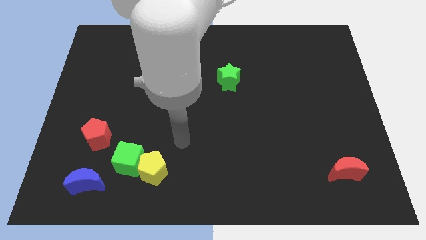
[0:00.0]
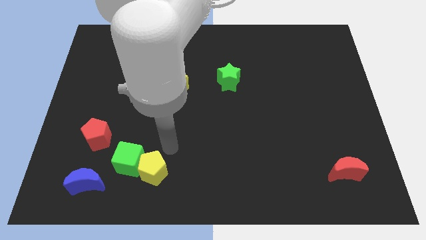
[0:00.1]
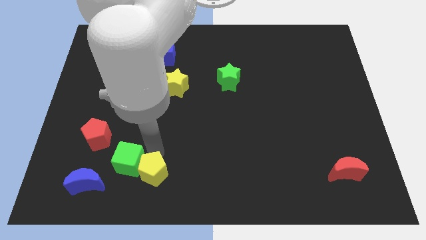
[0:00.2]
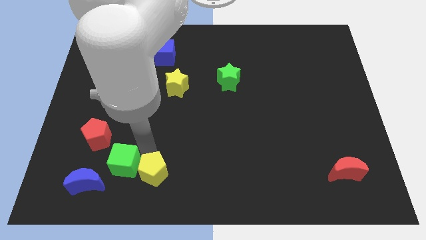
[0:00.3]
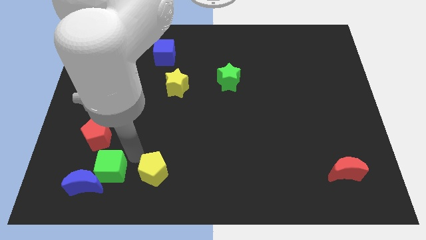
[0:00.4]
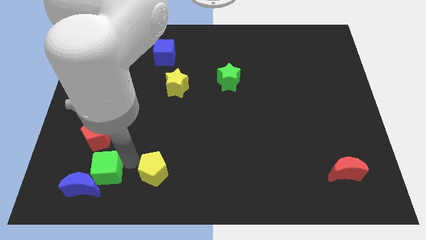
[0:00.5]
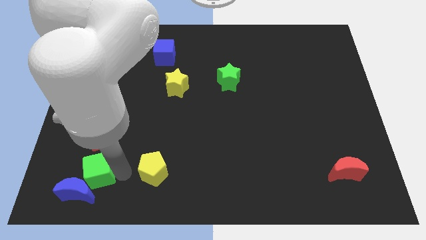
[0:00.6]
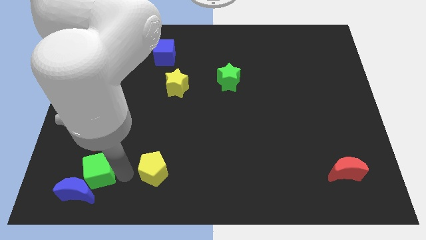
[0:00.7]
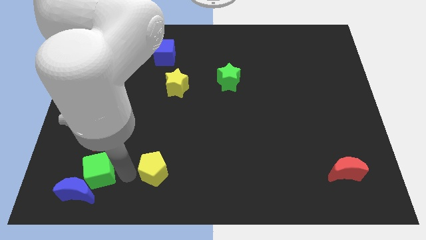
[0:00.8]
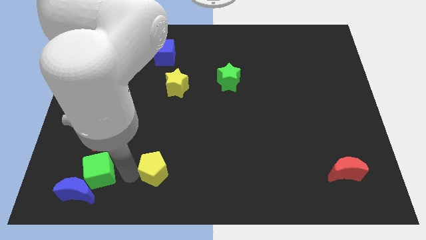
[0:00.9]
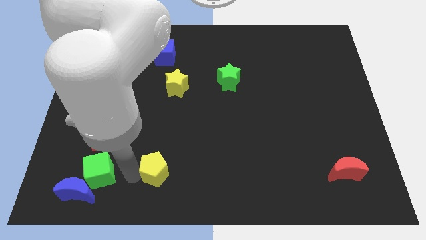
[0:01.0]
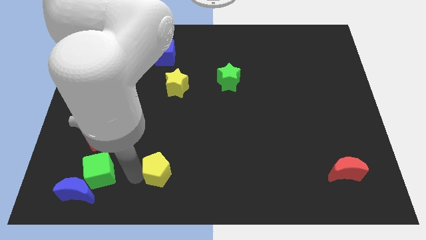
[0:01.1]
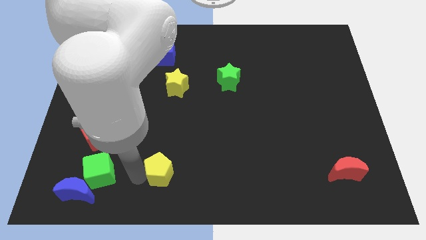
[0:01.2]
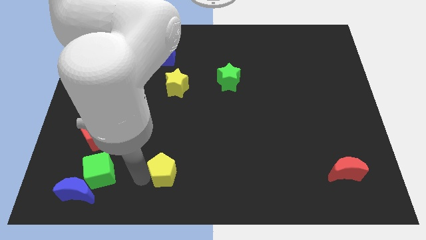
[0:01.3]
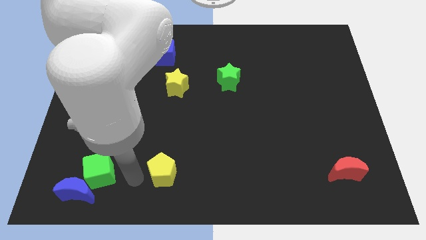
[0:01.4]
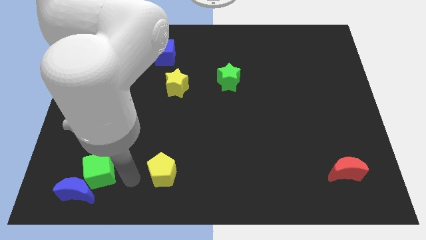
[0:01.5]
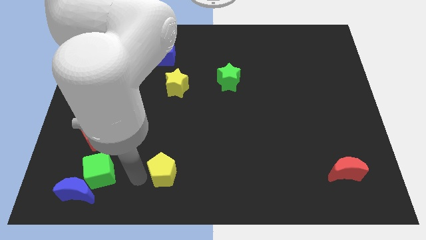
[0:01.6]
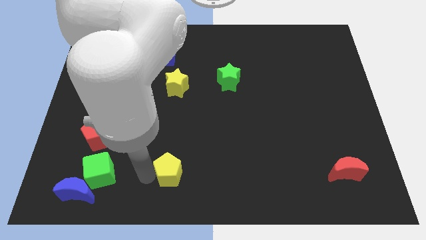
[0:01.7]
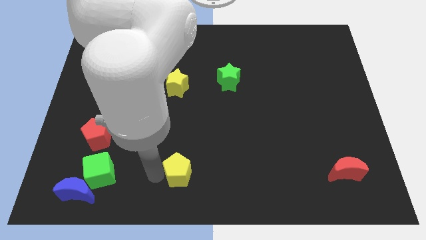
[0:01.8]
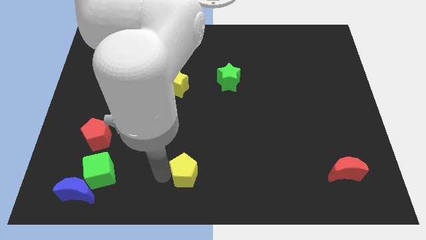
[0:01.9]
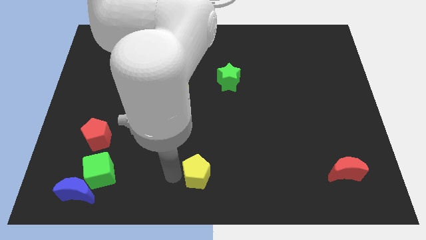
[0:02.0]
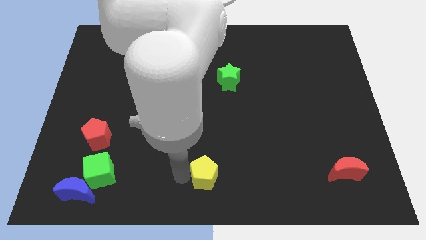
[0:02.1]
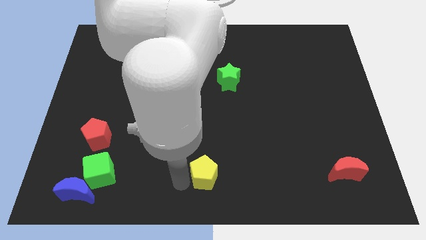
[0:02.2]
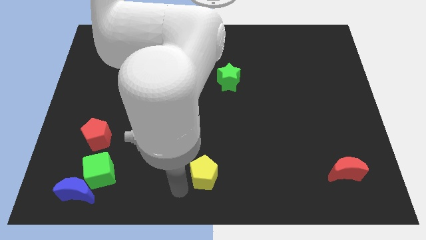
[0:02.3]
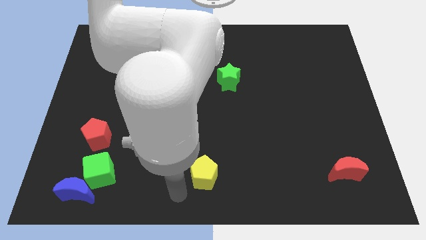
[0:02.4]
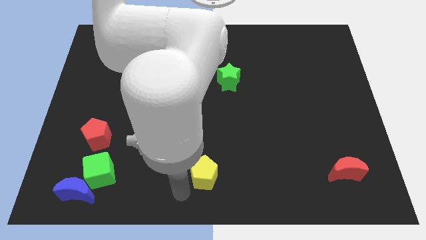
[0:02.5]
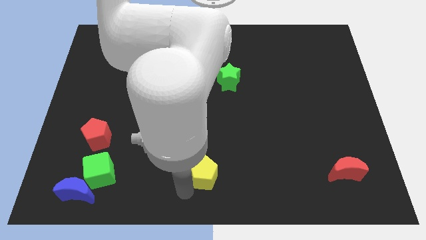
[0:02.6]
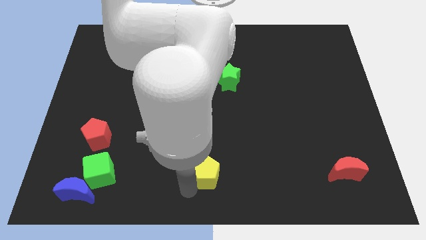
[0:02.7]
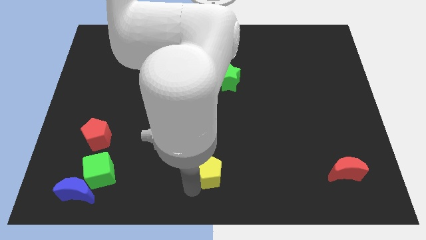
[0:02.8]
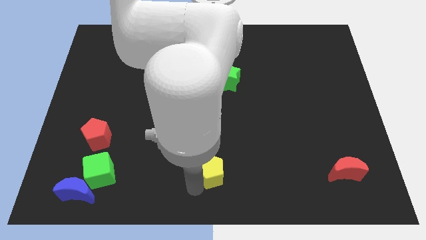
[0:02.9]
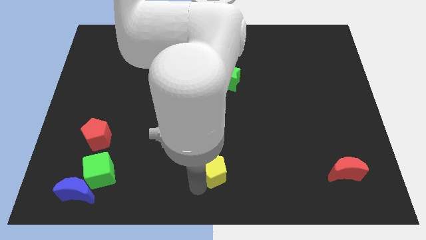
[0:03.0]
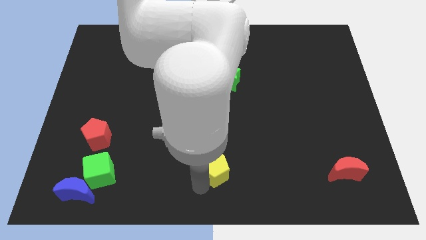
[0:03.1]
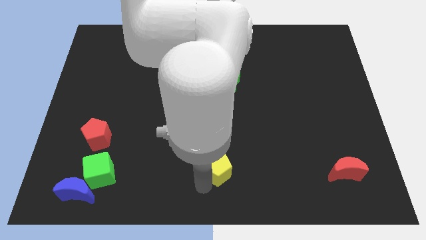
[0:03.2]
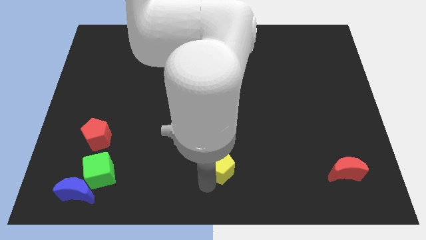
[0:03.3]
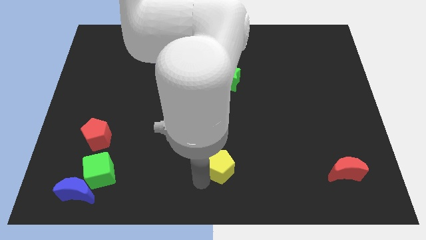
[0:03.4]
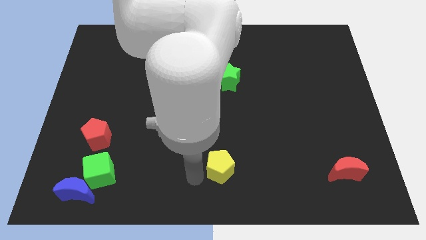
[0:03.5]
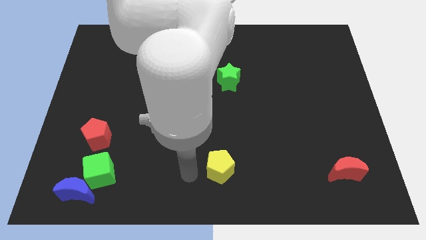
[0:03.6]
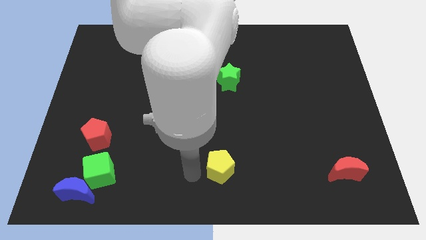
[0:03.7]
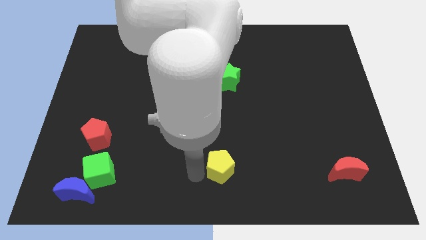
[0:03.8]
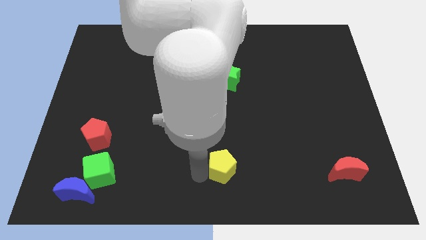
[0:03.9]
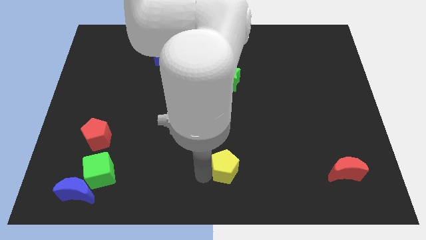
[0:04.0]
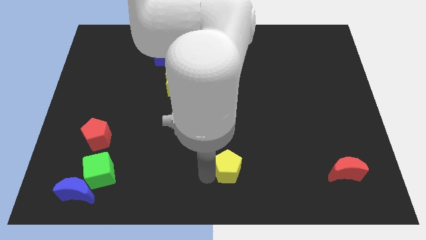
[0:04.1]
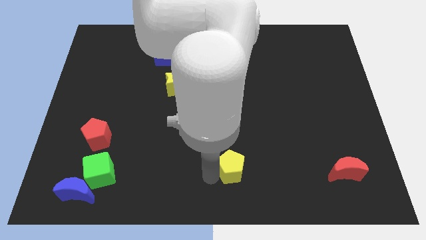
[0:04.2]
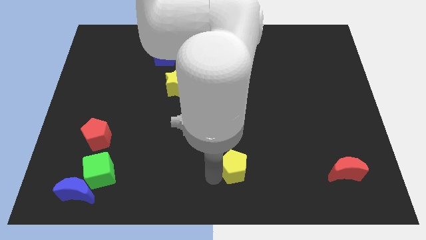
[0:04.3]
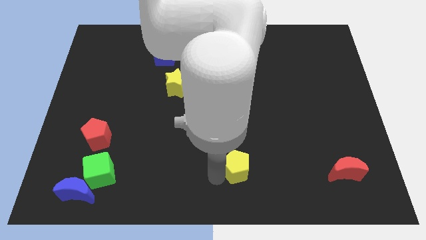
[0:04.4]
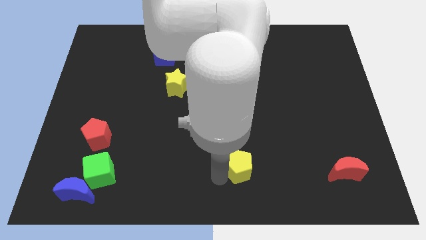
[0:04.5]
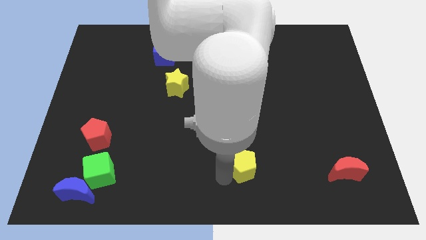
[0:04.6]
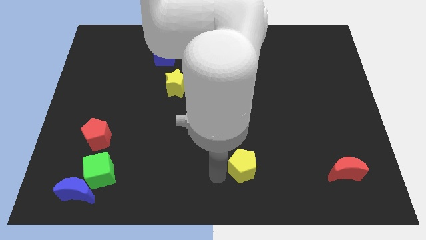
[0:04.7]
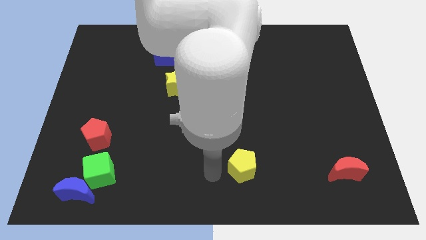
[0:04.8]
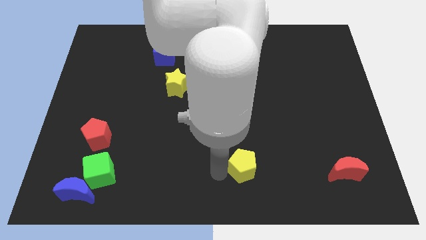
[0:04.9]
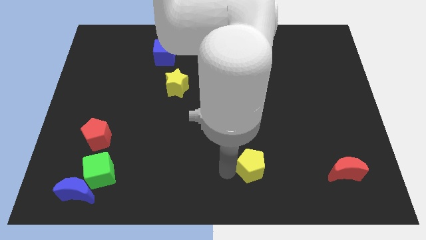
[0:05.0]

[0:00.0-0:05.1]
move the yellow pentagon to the right

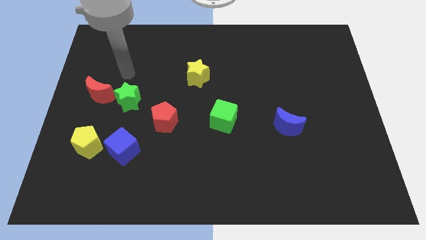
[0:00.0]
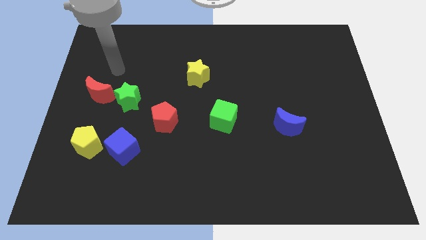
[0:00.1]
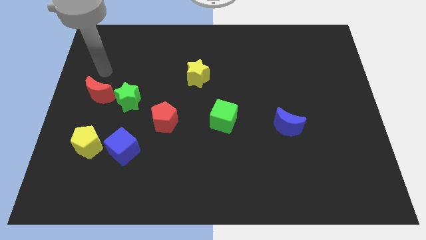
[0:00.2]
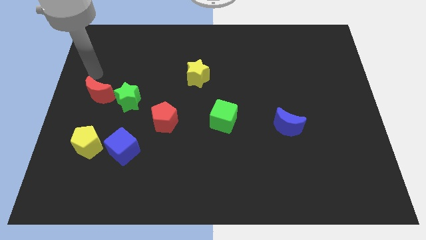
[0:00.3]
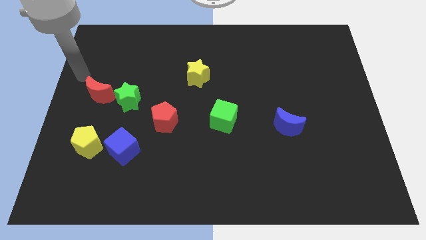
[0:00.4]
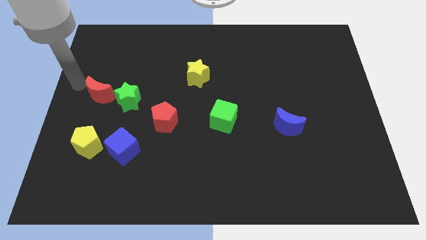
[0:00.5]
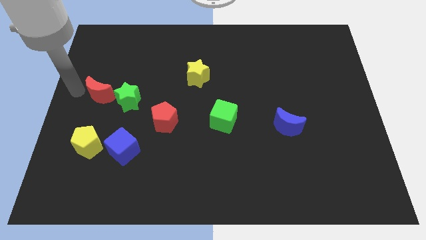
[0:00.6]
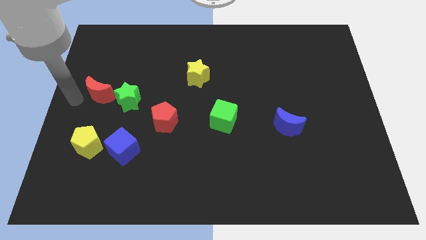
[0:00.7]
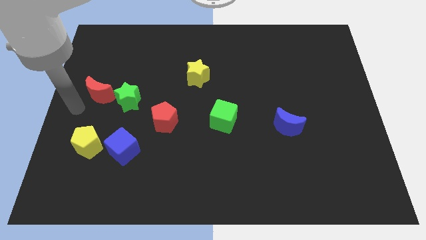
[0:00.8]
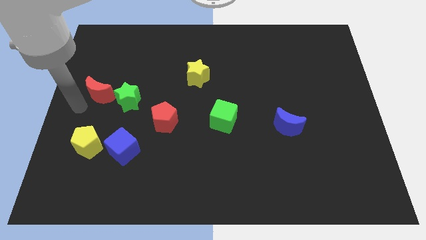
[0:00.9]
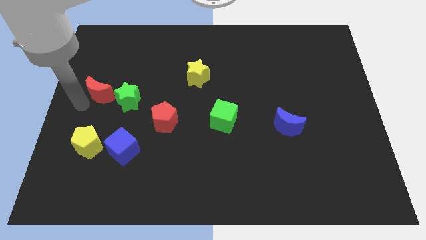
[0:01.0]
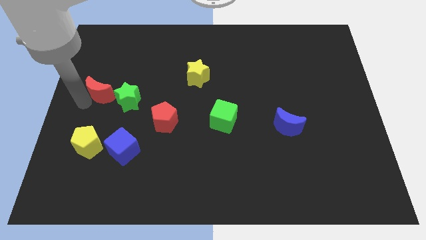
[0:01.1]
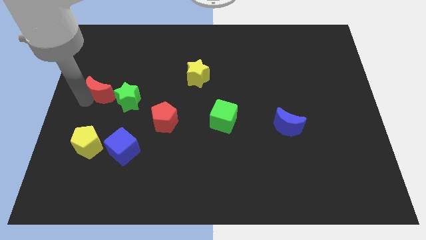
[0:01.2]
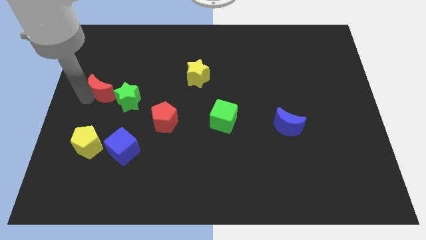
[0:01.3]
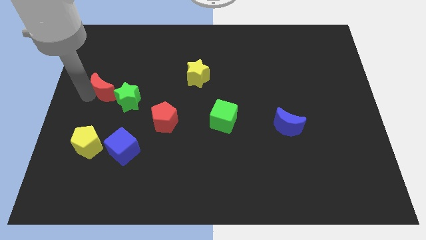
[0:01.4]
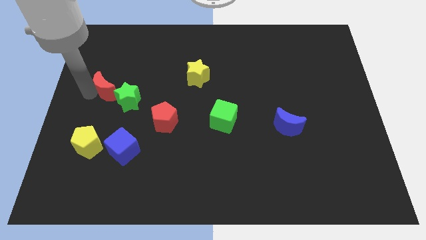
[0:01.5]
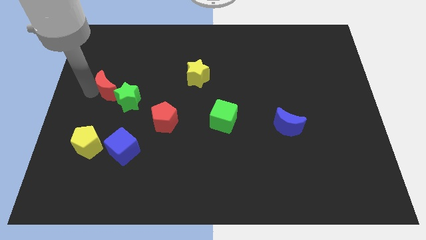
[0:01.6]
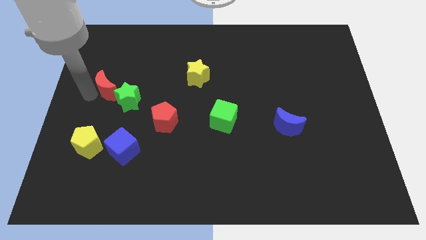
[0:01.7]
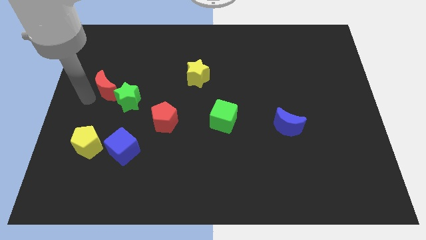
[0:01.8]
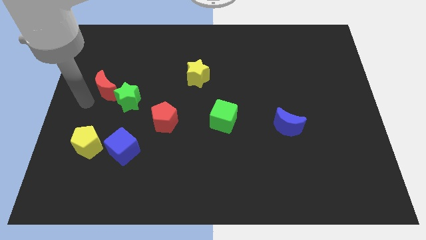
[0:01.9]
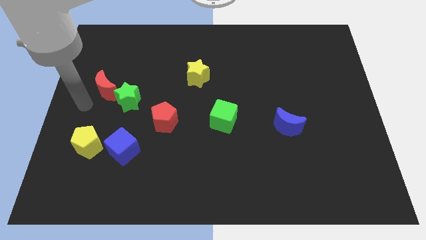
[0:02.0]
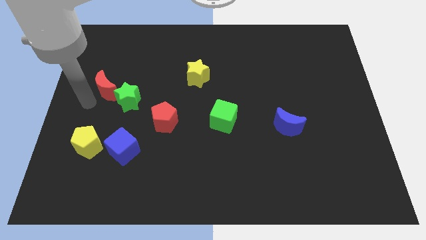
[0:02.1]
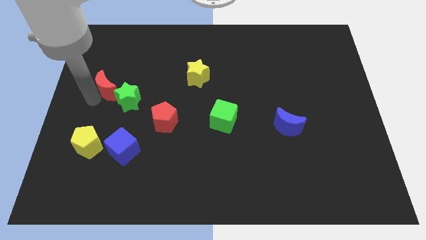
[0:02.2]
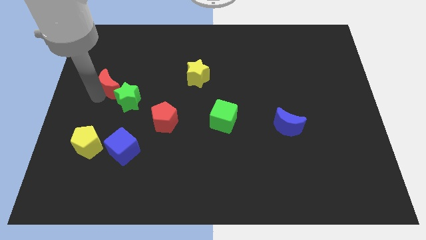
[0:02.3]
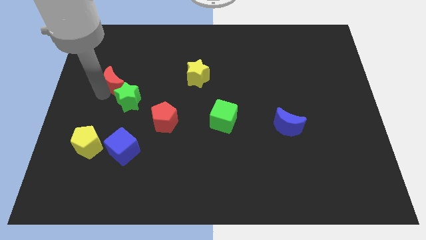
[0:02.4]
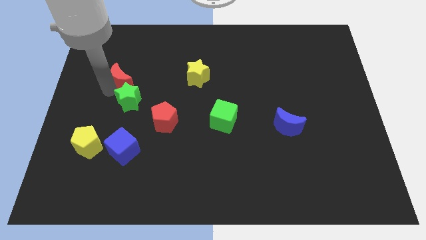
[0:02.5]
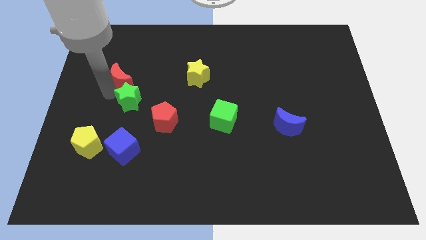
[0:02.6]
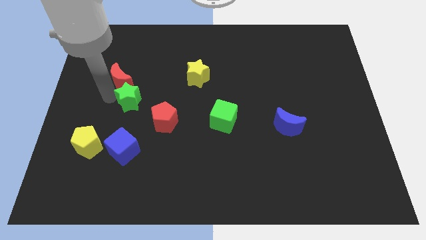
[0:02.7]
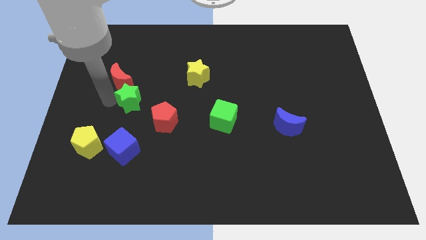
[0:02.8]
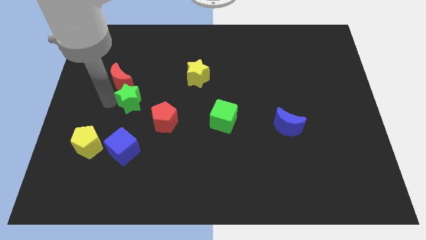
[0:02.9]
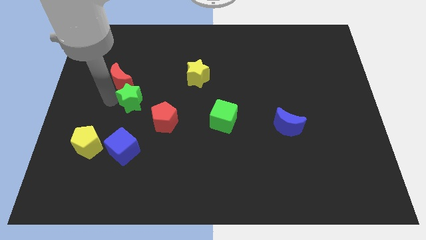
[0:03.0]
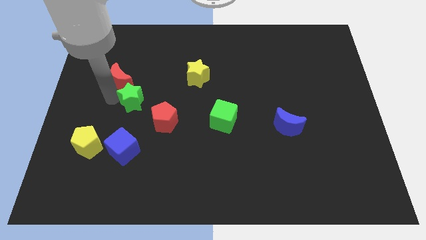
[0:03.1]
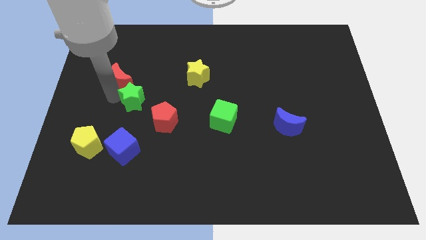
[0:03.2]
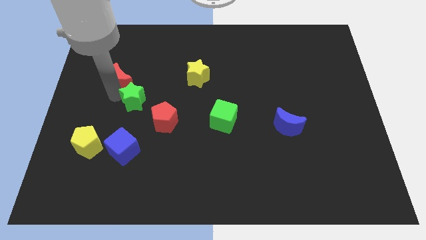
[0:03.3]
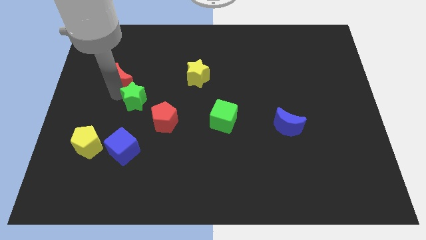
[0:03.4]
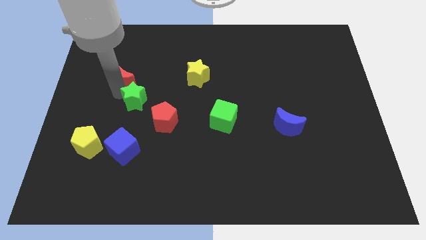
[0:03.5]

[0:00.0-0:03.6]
slide the red moon slightly up and then right
